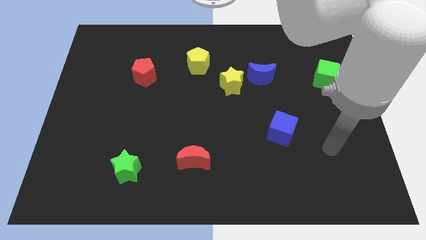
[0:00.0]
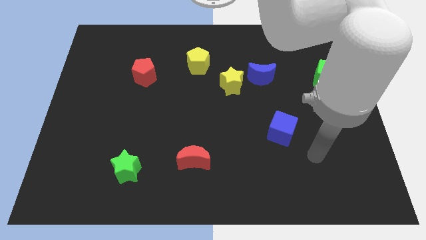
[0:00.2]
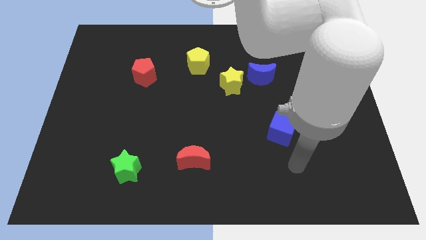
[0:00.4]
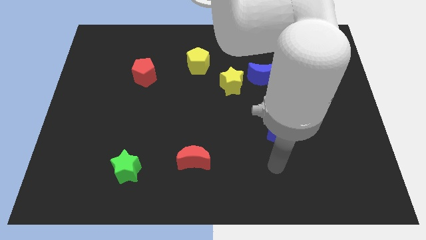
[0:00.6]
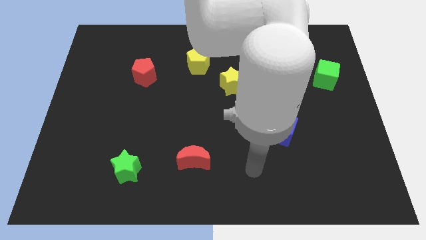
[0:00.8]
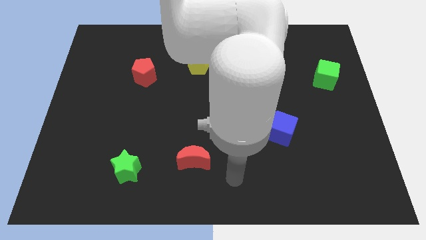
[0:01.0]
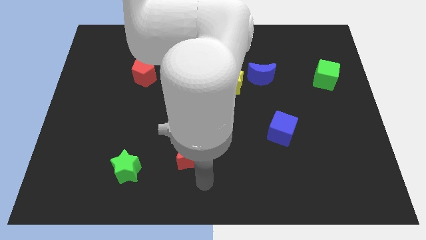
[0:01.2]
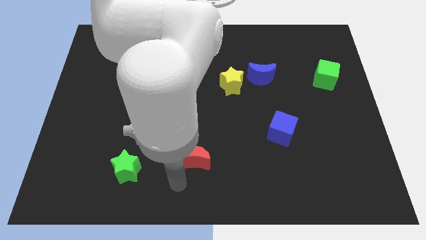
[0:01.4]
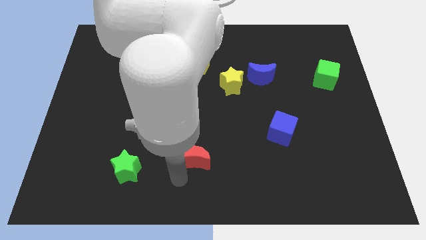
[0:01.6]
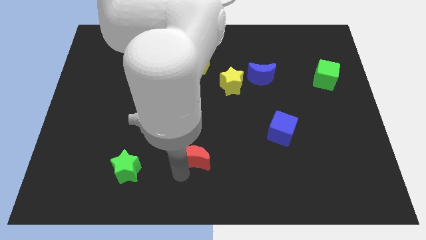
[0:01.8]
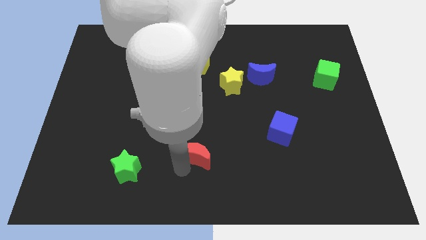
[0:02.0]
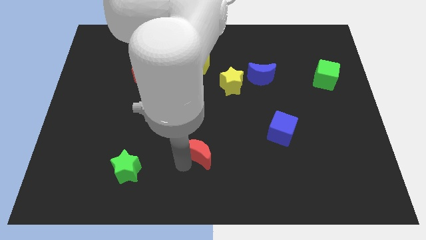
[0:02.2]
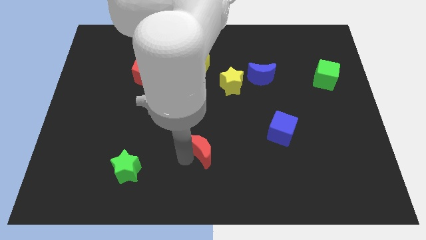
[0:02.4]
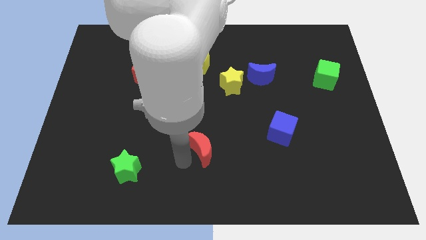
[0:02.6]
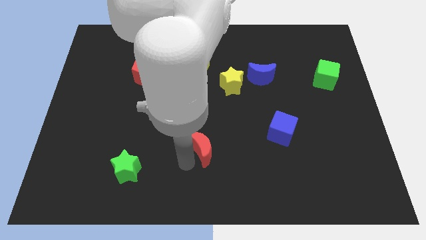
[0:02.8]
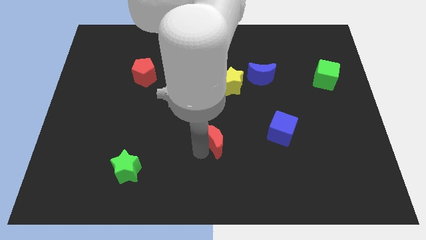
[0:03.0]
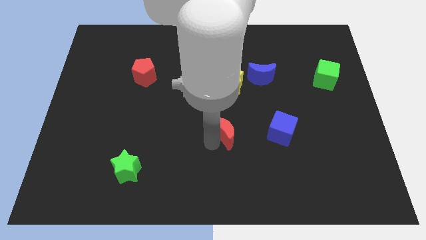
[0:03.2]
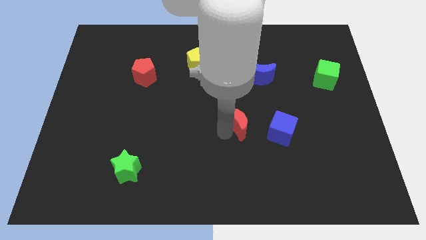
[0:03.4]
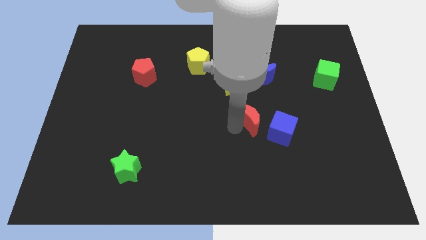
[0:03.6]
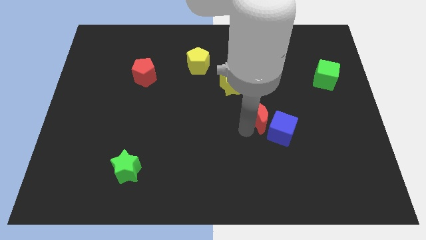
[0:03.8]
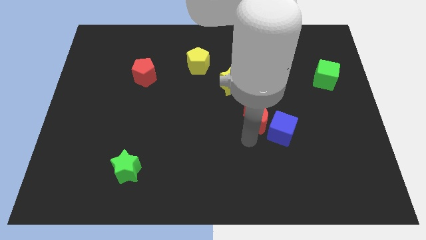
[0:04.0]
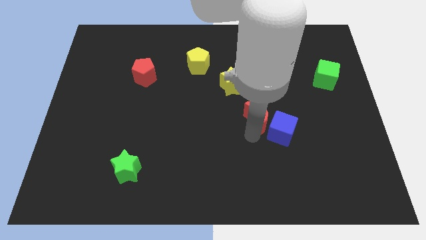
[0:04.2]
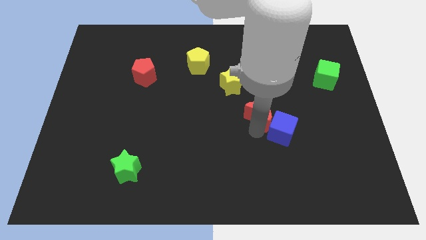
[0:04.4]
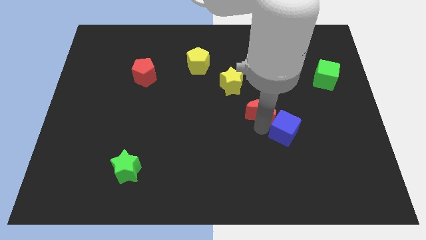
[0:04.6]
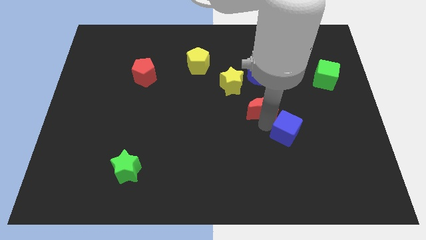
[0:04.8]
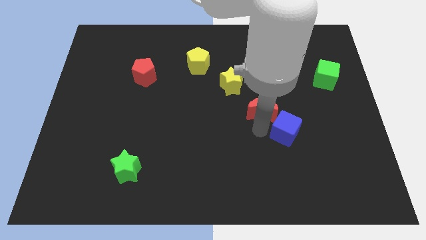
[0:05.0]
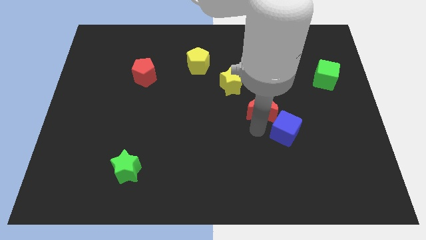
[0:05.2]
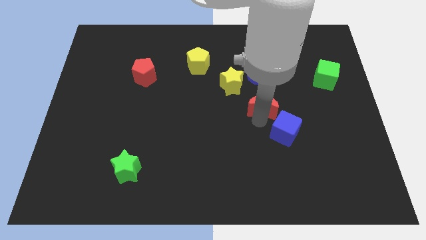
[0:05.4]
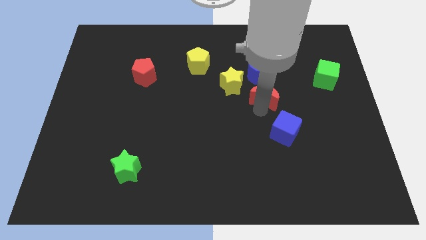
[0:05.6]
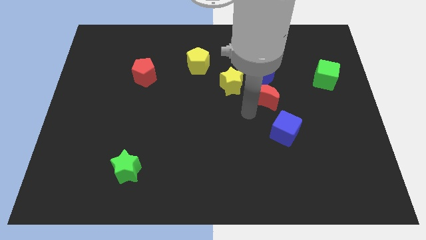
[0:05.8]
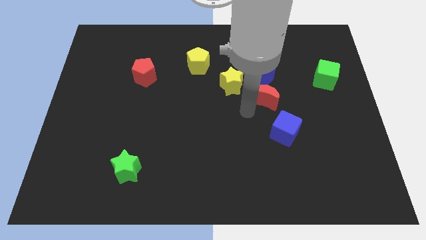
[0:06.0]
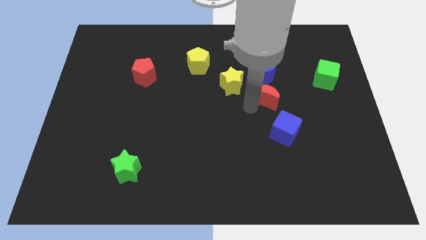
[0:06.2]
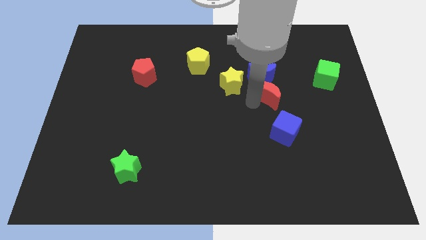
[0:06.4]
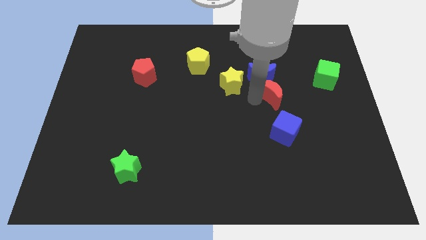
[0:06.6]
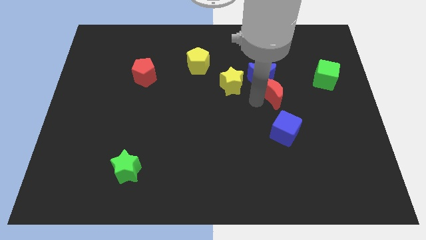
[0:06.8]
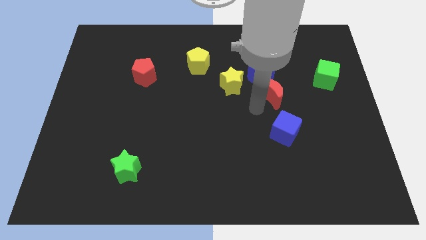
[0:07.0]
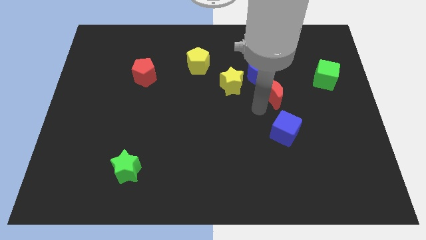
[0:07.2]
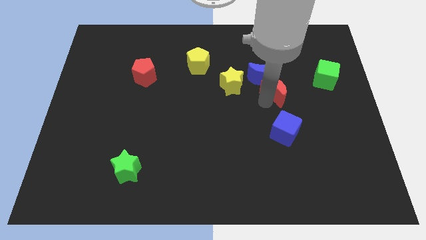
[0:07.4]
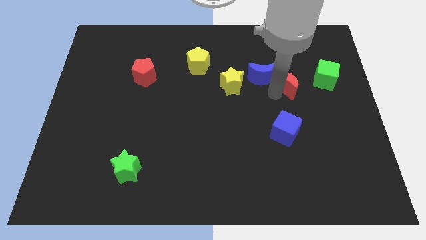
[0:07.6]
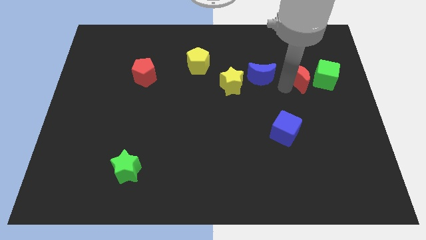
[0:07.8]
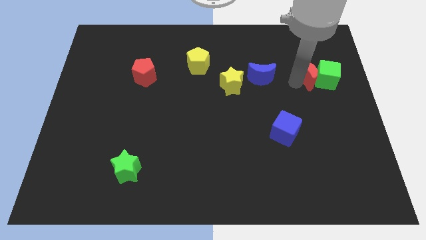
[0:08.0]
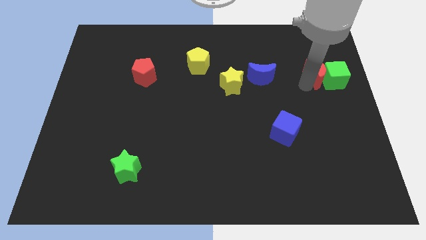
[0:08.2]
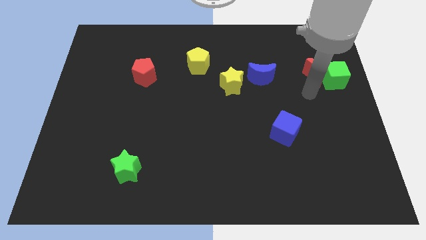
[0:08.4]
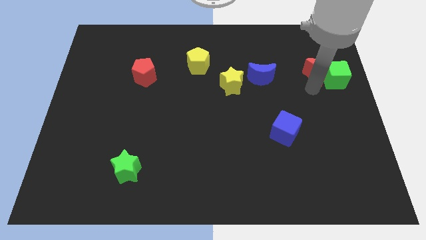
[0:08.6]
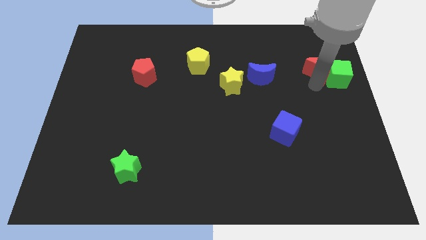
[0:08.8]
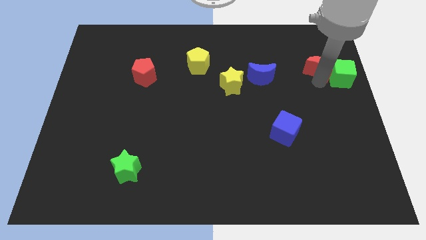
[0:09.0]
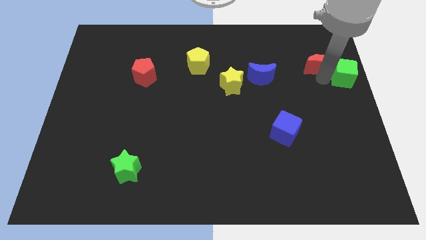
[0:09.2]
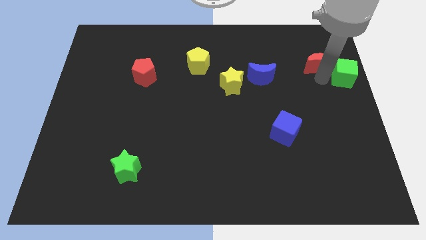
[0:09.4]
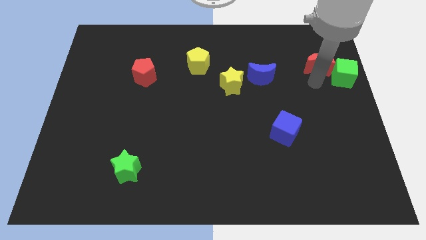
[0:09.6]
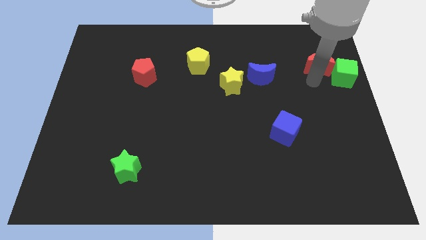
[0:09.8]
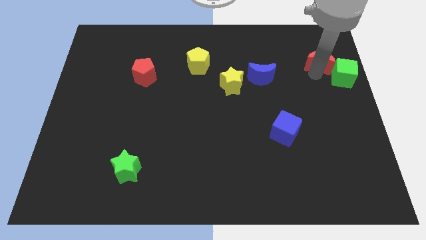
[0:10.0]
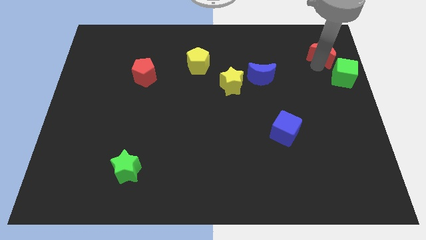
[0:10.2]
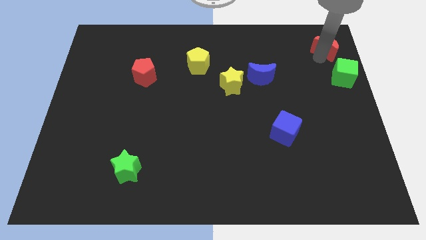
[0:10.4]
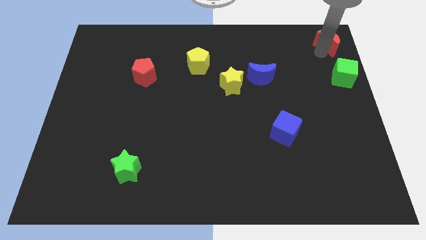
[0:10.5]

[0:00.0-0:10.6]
push the red moon to the top right
